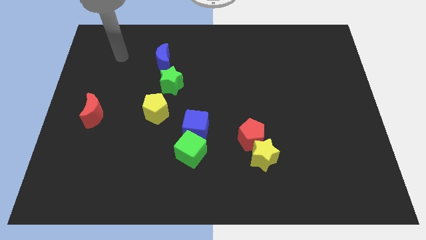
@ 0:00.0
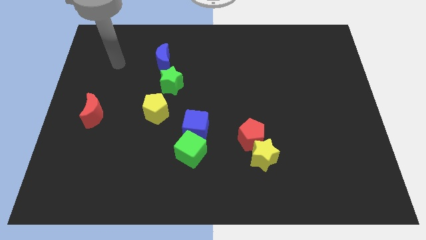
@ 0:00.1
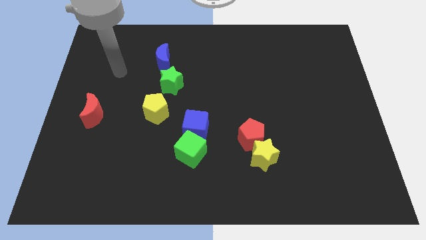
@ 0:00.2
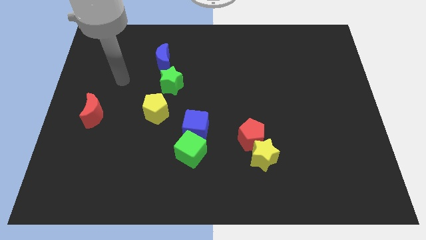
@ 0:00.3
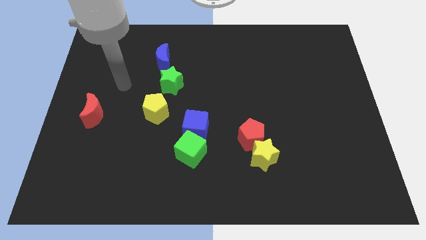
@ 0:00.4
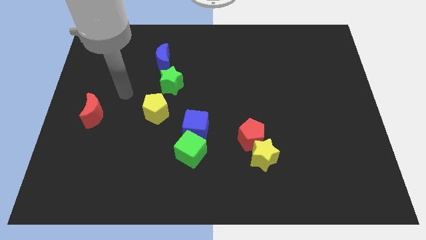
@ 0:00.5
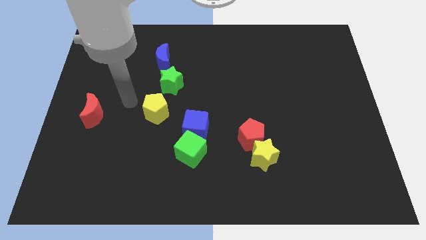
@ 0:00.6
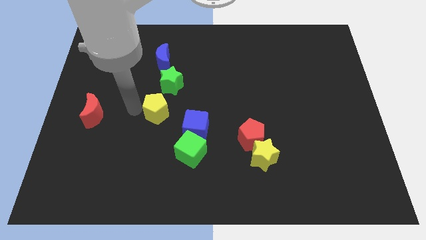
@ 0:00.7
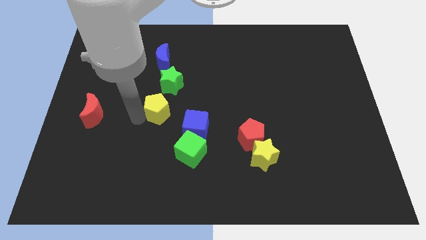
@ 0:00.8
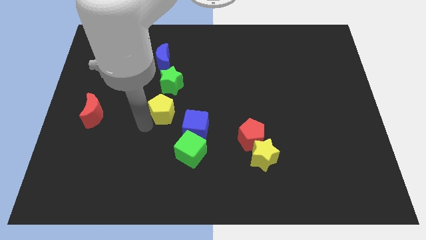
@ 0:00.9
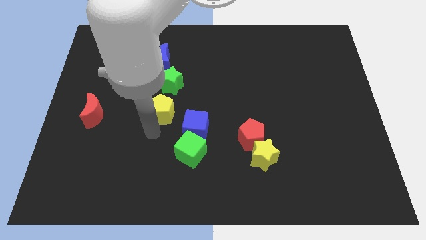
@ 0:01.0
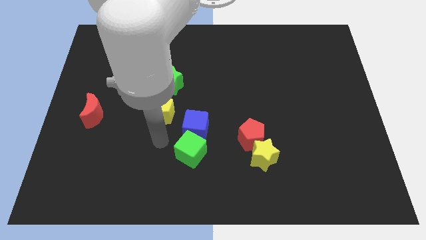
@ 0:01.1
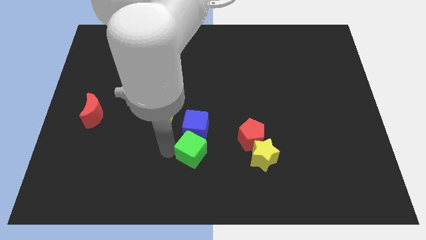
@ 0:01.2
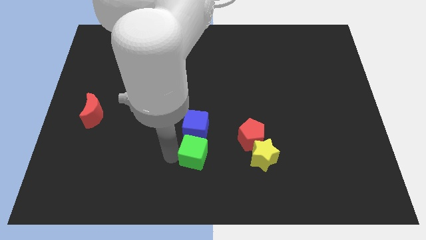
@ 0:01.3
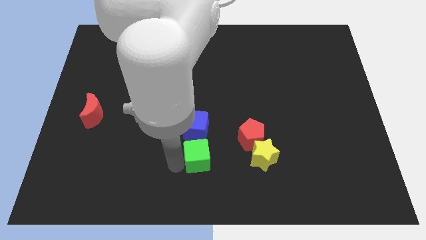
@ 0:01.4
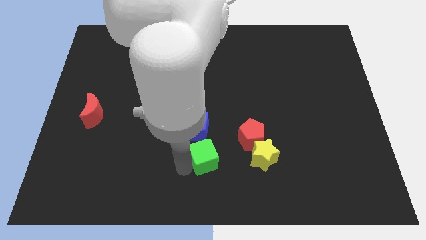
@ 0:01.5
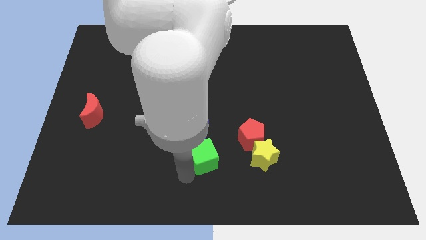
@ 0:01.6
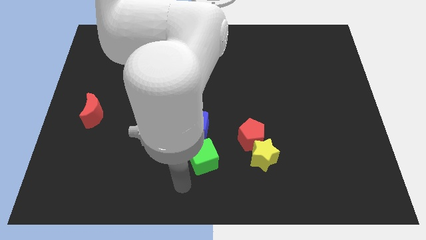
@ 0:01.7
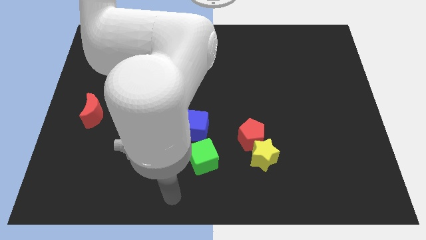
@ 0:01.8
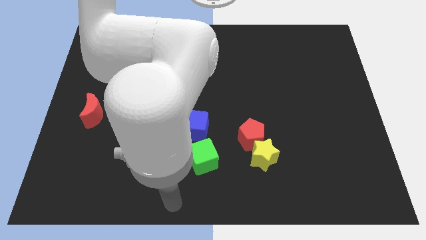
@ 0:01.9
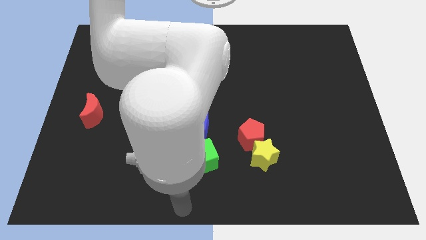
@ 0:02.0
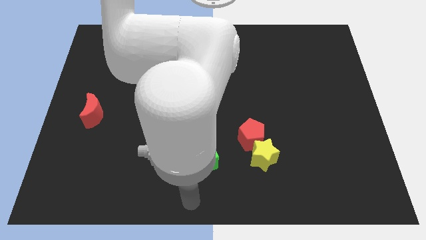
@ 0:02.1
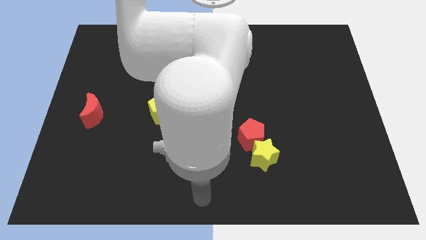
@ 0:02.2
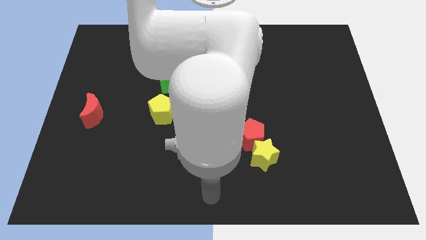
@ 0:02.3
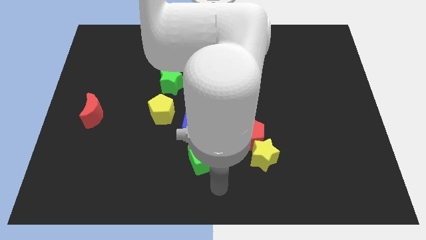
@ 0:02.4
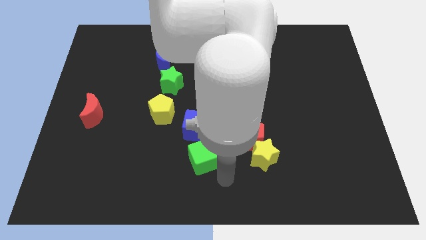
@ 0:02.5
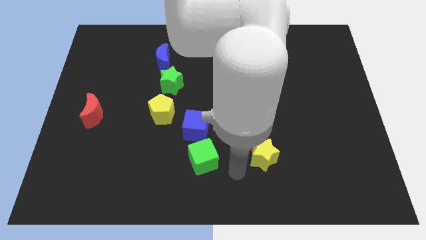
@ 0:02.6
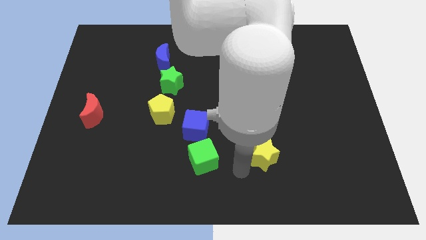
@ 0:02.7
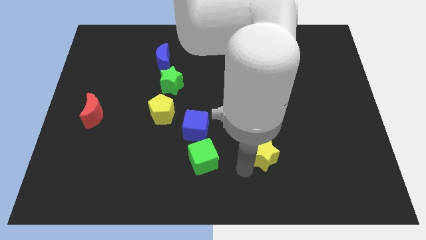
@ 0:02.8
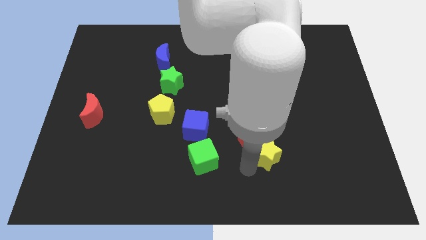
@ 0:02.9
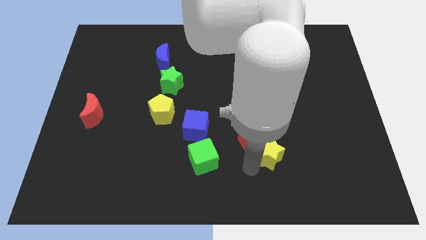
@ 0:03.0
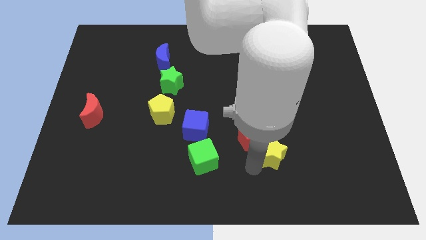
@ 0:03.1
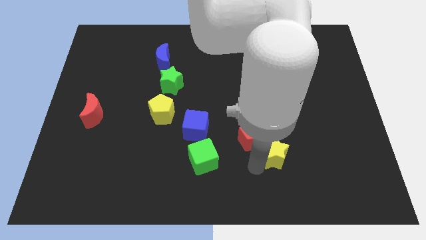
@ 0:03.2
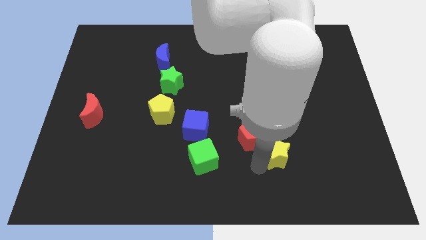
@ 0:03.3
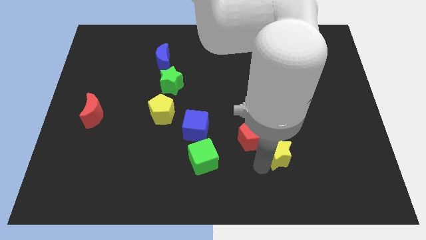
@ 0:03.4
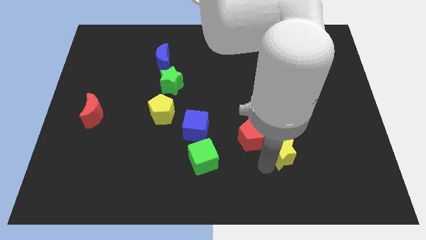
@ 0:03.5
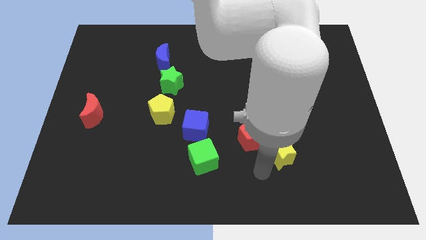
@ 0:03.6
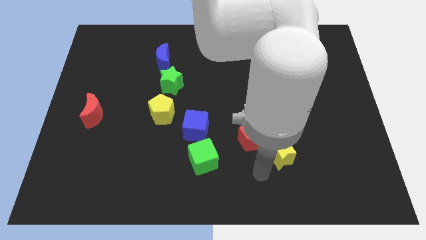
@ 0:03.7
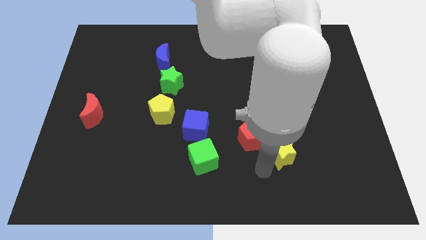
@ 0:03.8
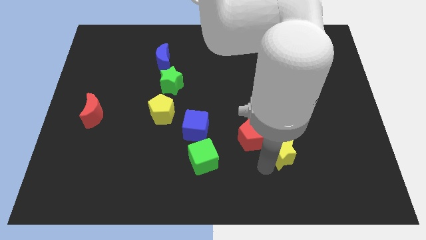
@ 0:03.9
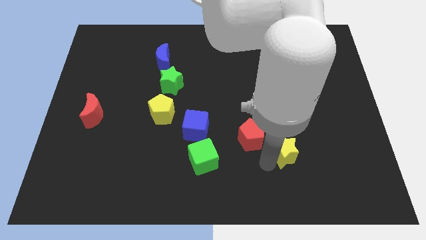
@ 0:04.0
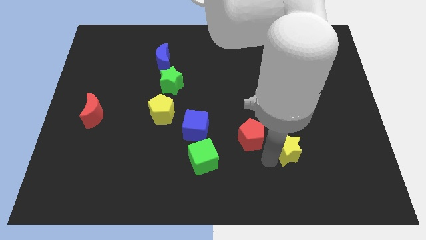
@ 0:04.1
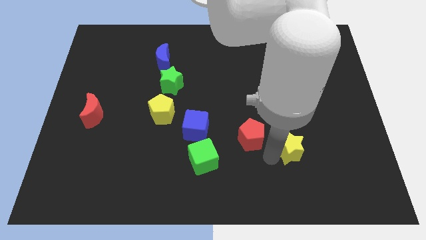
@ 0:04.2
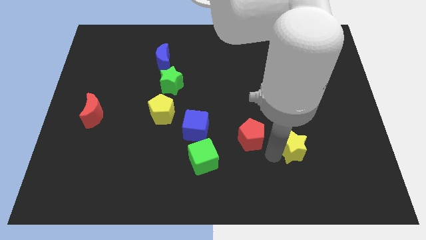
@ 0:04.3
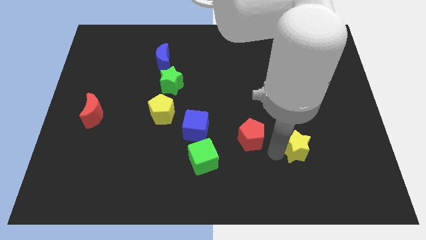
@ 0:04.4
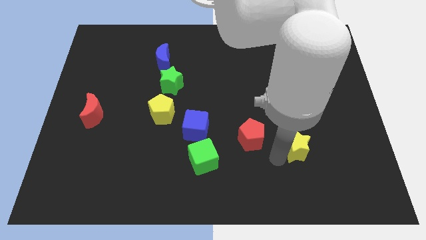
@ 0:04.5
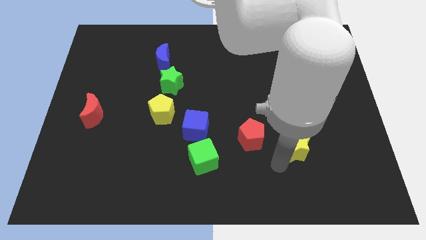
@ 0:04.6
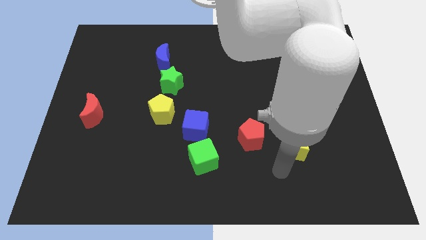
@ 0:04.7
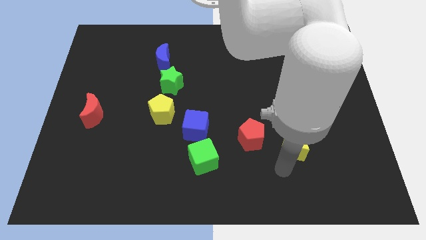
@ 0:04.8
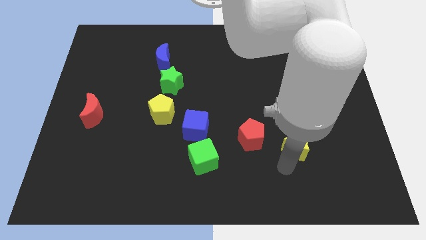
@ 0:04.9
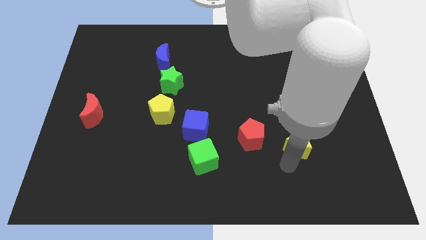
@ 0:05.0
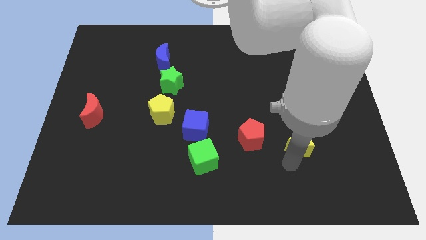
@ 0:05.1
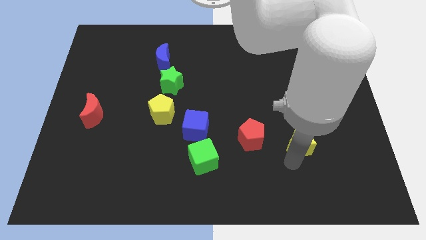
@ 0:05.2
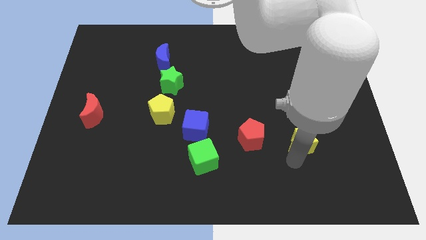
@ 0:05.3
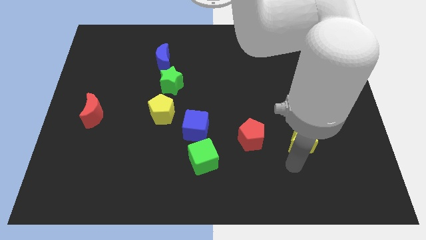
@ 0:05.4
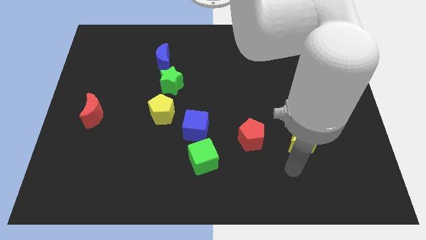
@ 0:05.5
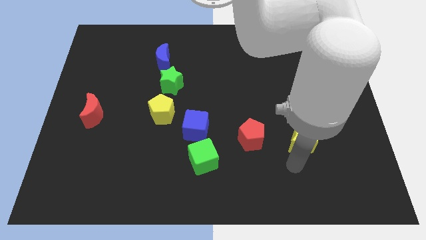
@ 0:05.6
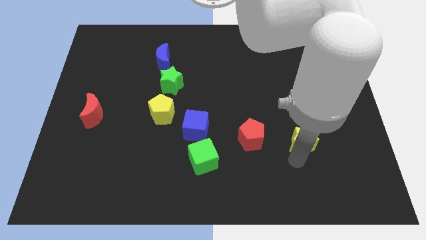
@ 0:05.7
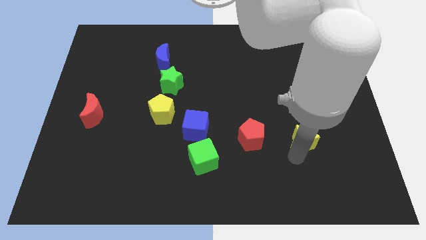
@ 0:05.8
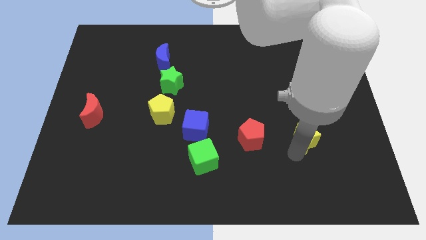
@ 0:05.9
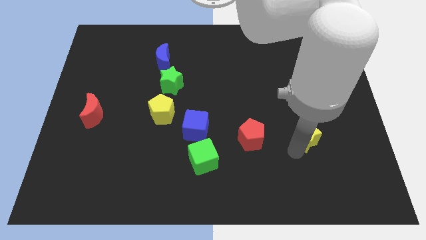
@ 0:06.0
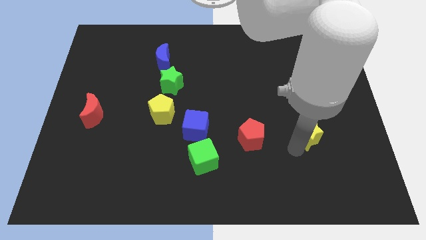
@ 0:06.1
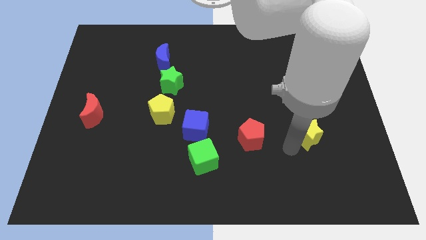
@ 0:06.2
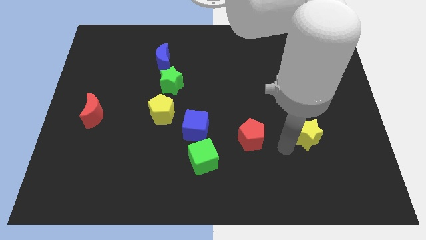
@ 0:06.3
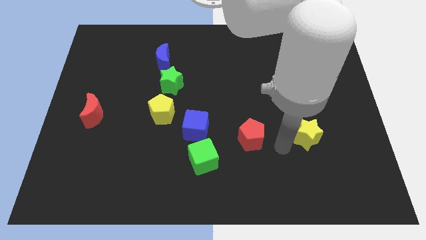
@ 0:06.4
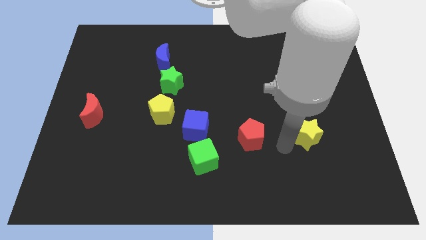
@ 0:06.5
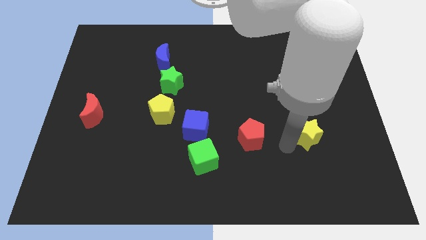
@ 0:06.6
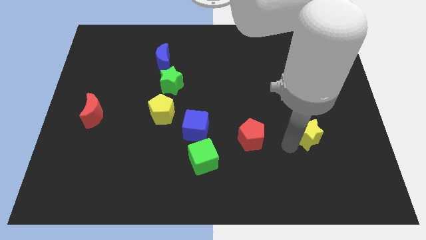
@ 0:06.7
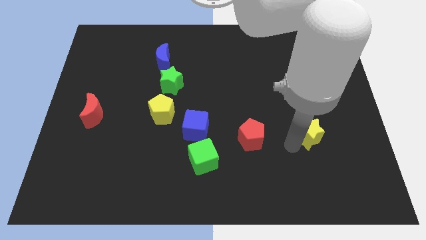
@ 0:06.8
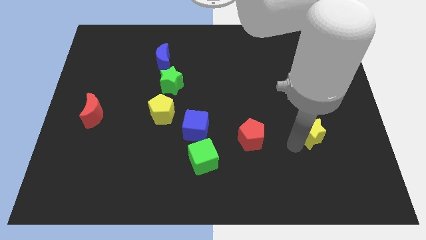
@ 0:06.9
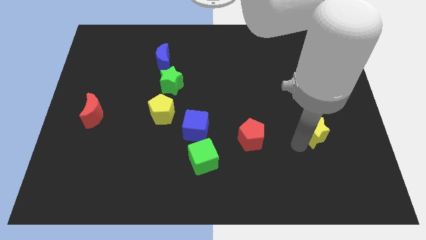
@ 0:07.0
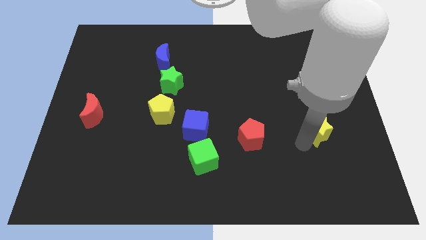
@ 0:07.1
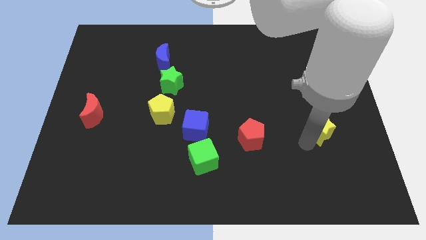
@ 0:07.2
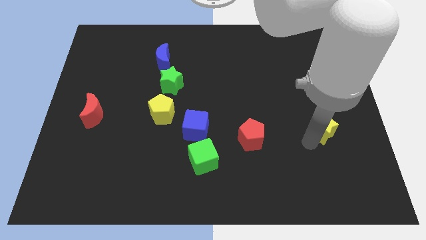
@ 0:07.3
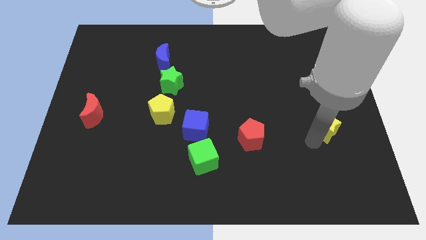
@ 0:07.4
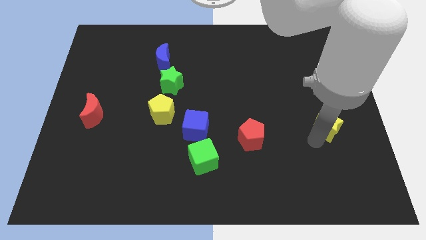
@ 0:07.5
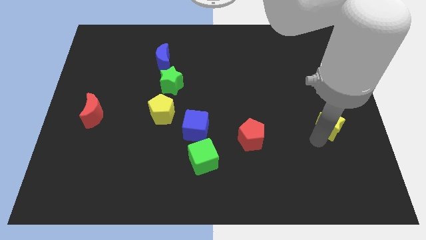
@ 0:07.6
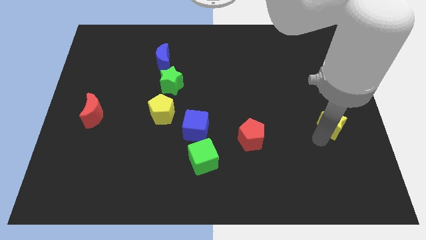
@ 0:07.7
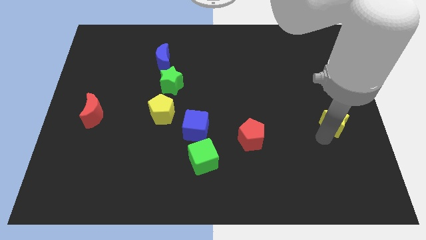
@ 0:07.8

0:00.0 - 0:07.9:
slide the yellow star to the right side of the board
